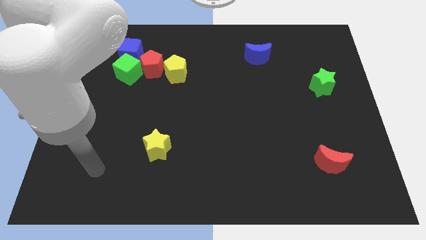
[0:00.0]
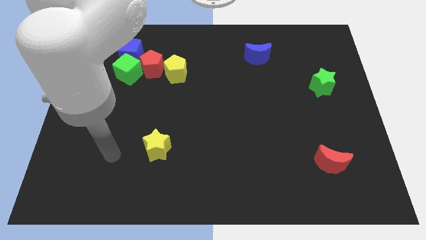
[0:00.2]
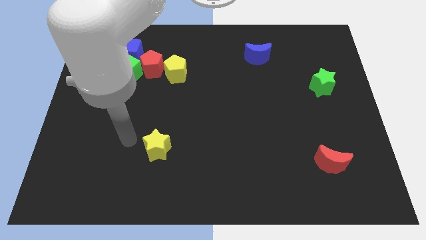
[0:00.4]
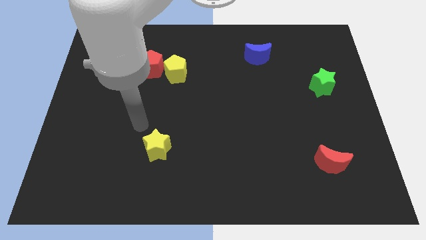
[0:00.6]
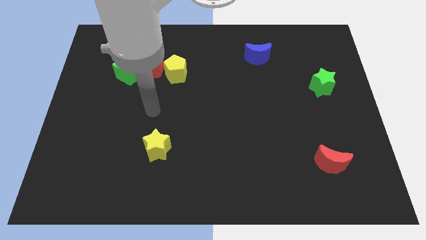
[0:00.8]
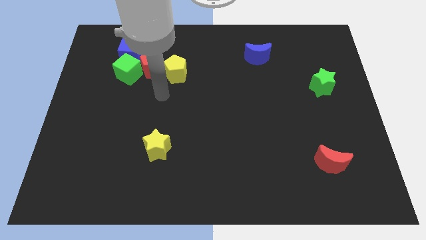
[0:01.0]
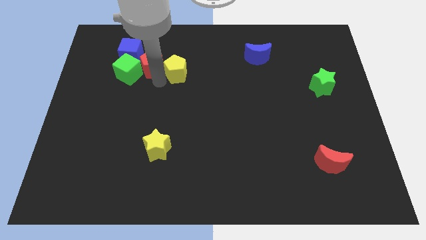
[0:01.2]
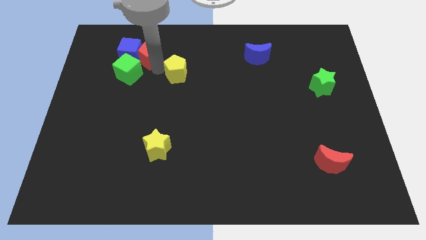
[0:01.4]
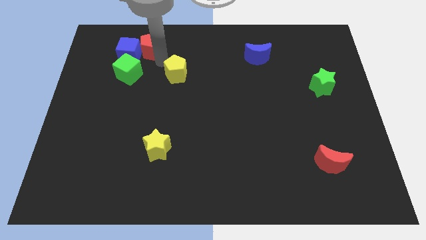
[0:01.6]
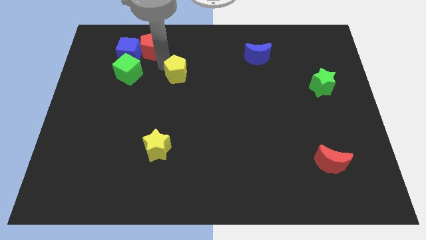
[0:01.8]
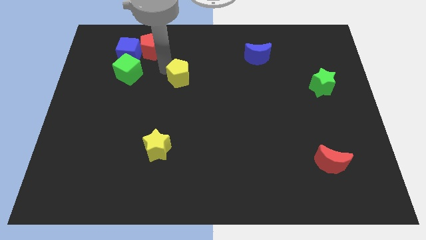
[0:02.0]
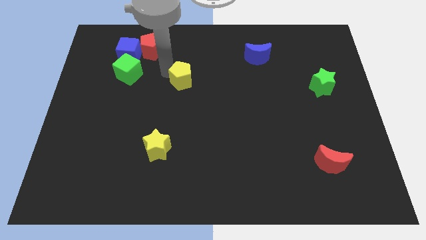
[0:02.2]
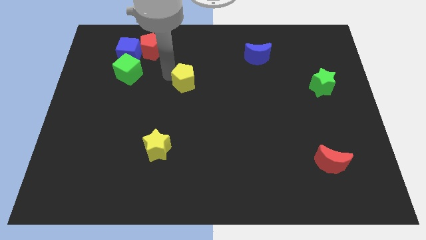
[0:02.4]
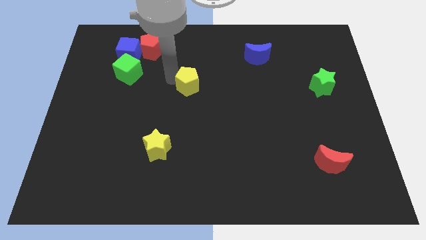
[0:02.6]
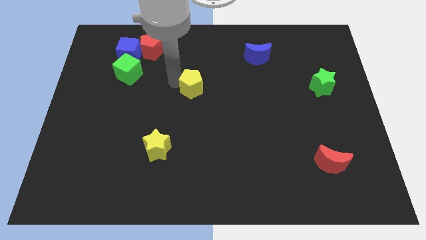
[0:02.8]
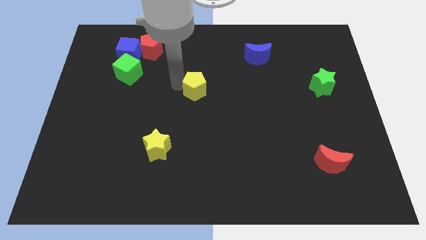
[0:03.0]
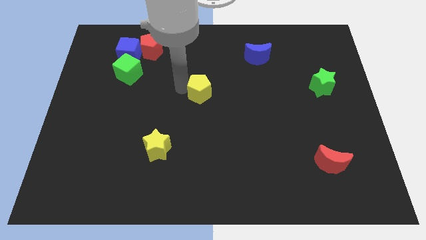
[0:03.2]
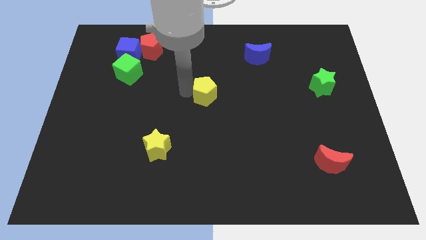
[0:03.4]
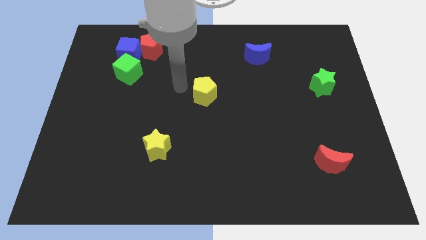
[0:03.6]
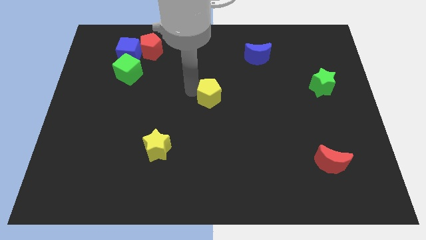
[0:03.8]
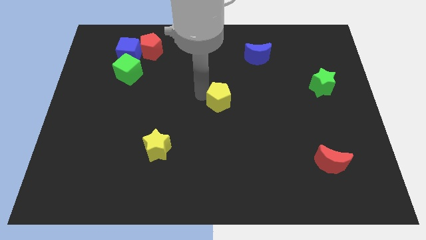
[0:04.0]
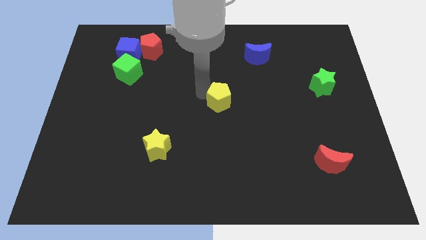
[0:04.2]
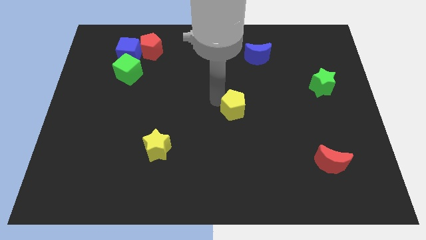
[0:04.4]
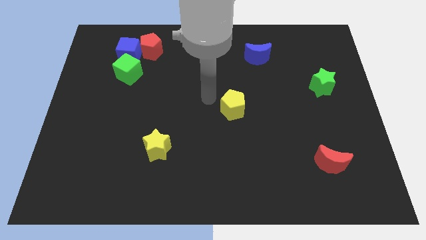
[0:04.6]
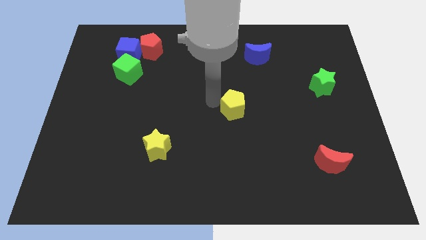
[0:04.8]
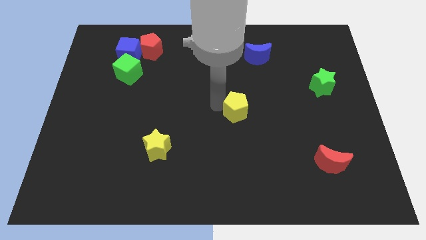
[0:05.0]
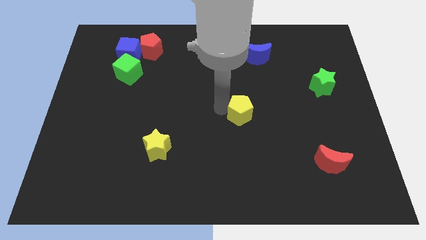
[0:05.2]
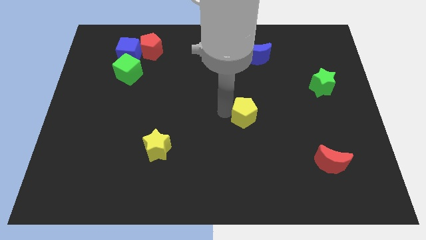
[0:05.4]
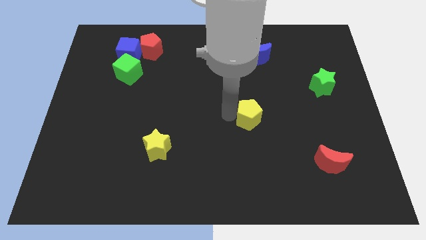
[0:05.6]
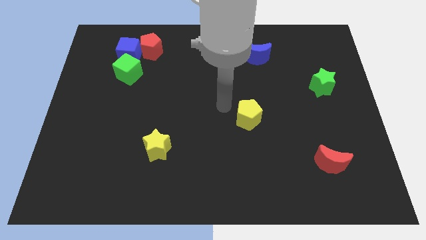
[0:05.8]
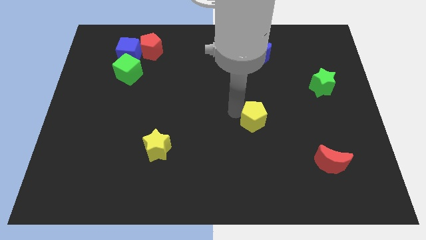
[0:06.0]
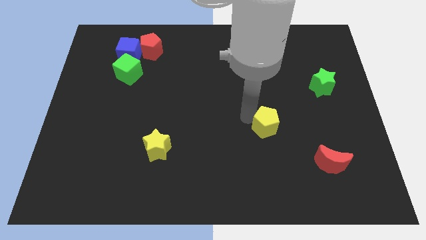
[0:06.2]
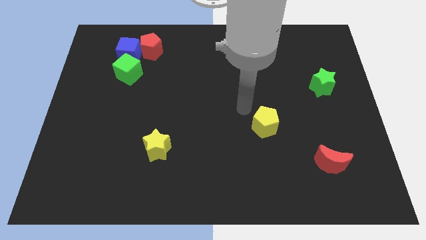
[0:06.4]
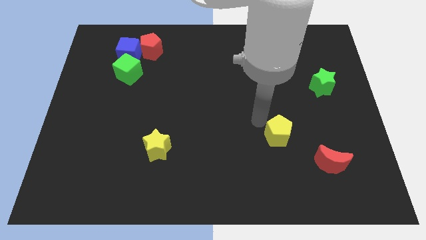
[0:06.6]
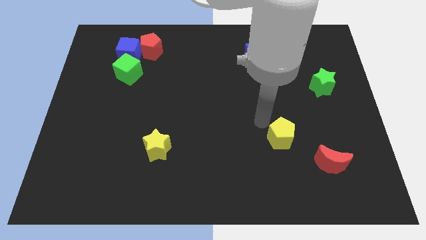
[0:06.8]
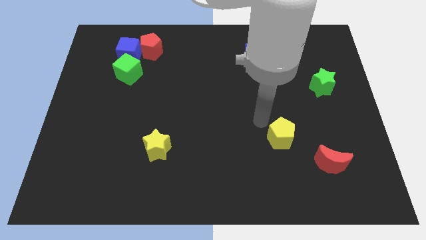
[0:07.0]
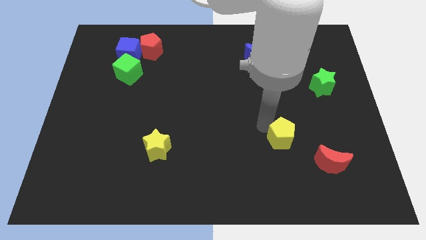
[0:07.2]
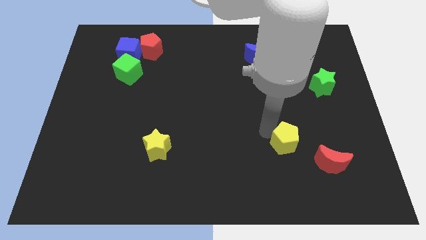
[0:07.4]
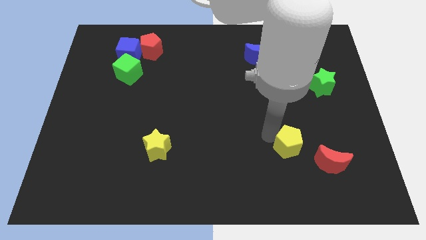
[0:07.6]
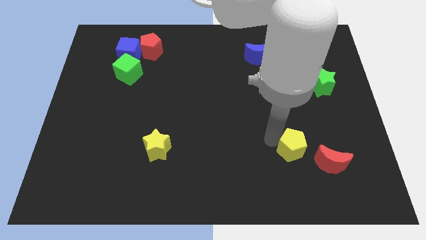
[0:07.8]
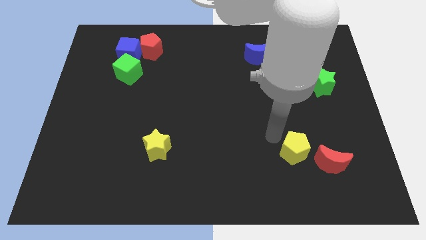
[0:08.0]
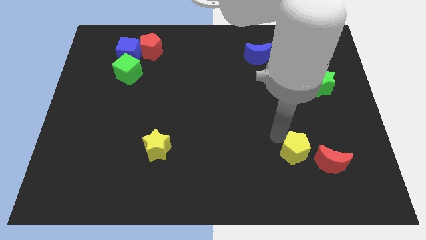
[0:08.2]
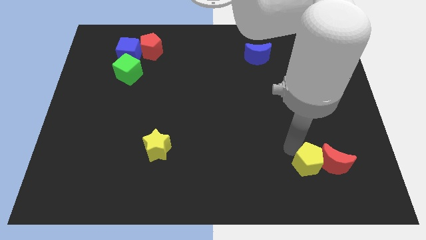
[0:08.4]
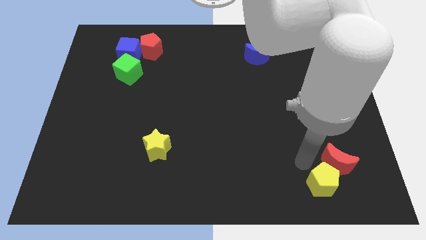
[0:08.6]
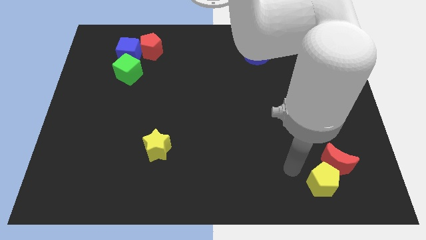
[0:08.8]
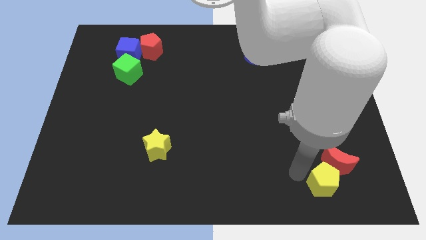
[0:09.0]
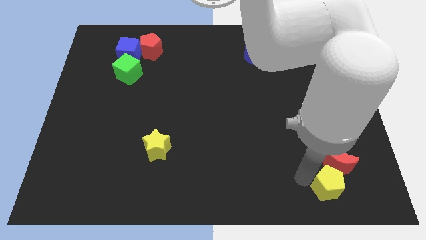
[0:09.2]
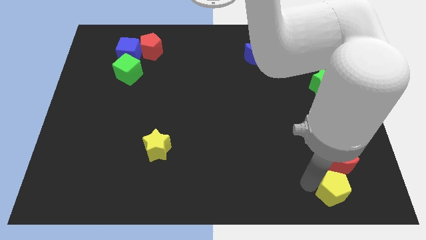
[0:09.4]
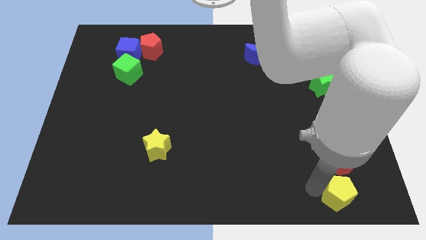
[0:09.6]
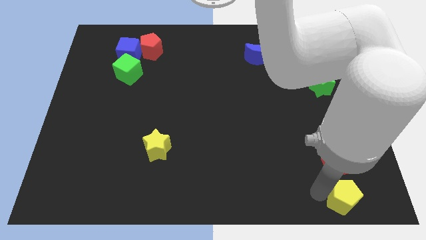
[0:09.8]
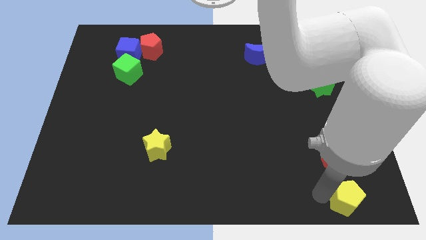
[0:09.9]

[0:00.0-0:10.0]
put the yellow pentagon to the bottom right

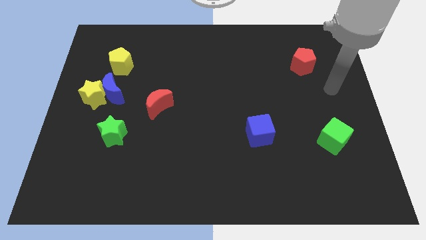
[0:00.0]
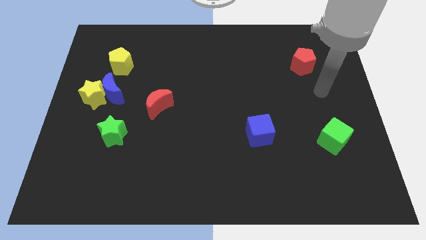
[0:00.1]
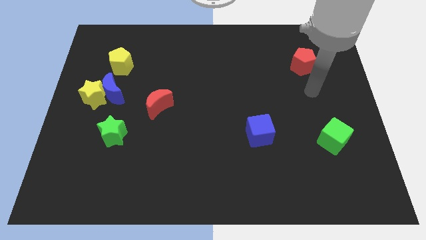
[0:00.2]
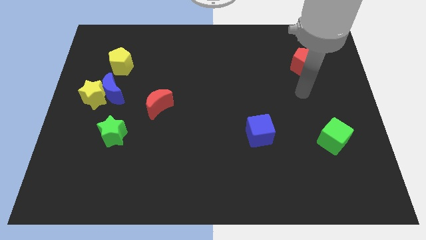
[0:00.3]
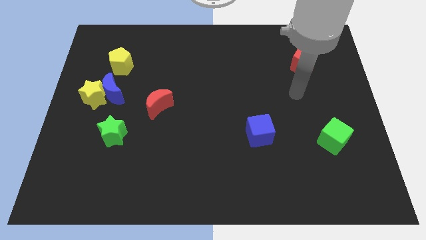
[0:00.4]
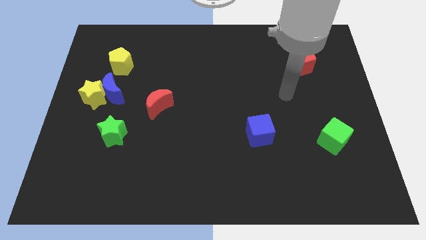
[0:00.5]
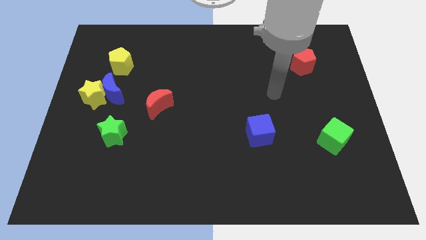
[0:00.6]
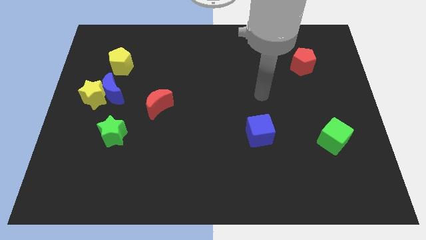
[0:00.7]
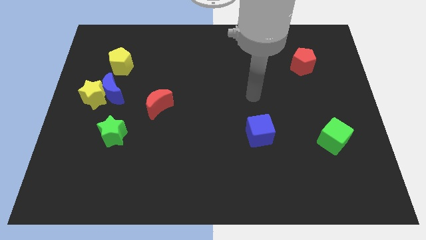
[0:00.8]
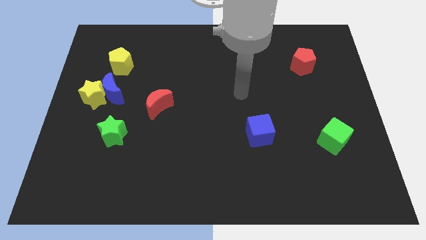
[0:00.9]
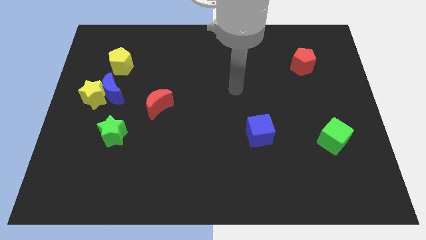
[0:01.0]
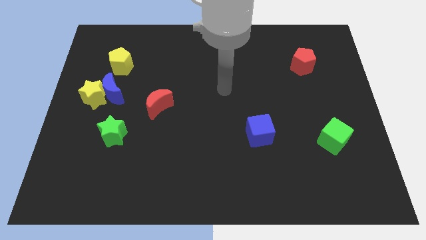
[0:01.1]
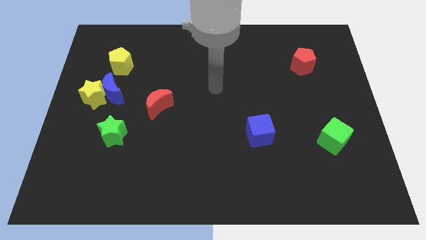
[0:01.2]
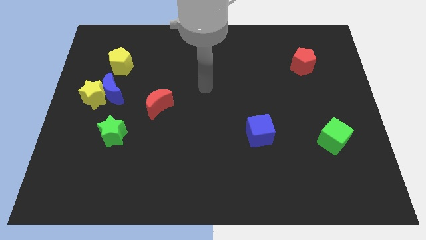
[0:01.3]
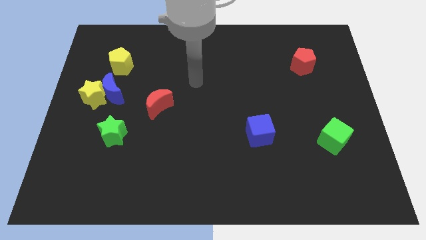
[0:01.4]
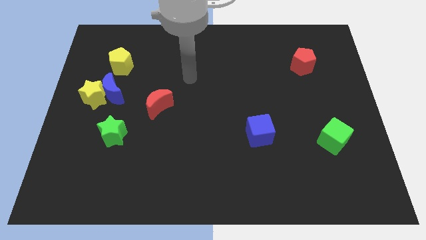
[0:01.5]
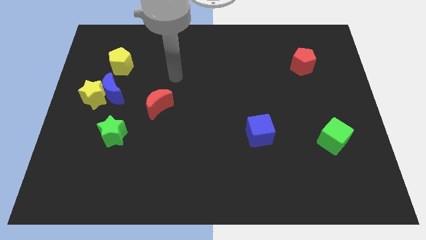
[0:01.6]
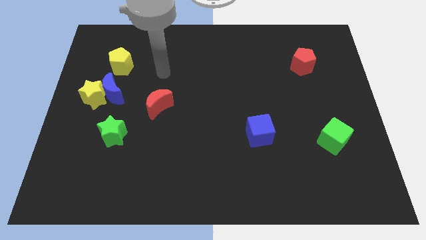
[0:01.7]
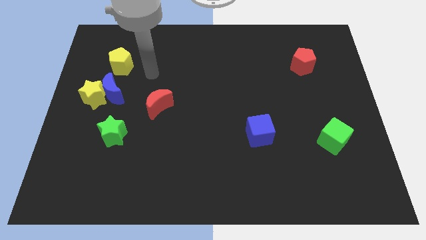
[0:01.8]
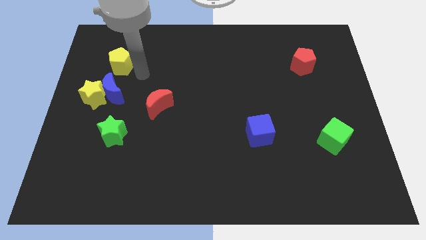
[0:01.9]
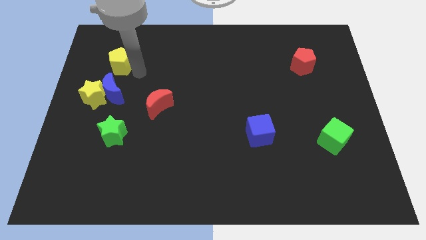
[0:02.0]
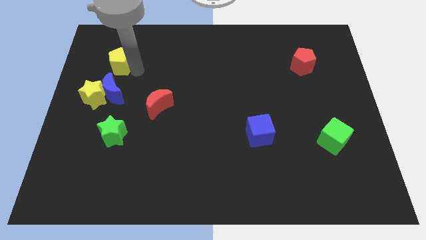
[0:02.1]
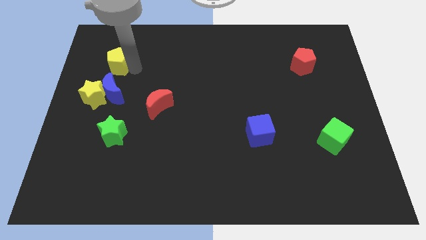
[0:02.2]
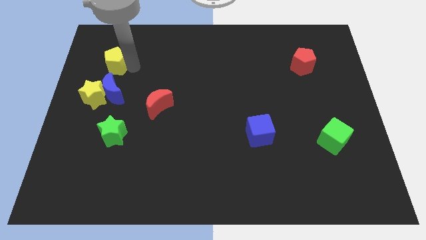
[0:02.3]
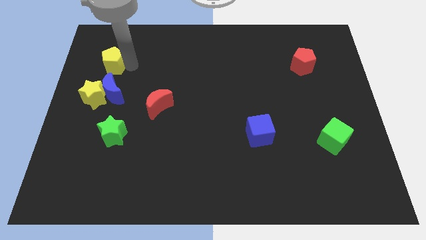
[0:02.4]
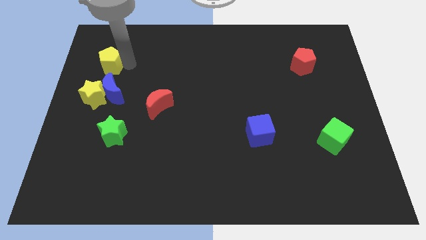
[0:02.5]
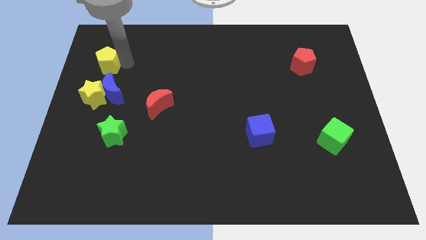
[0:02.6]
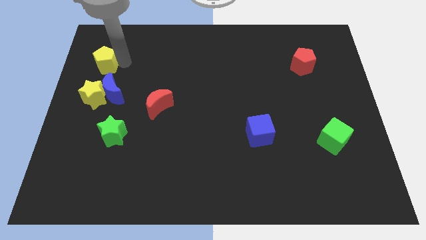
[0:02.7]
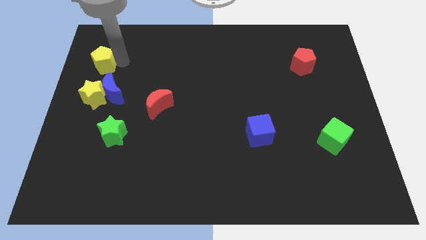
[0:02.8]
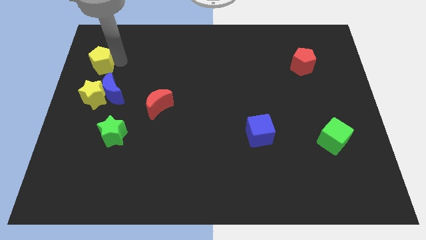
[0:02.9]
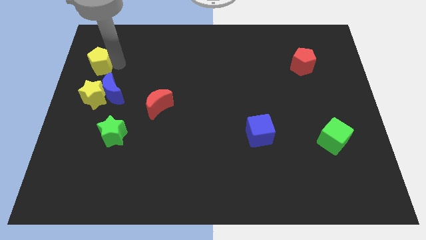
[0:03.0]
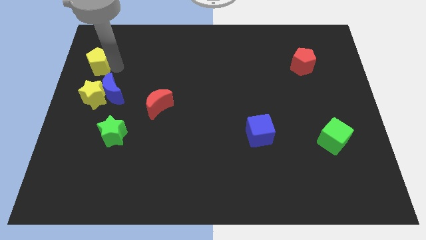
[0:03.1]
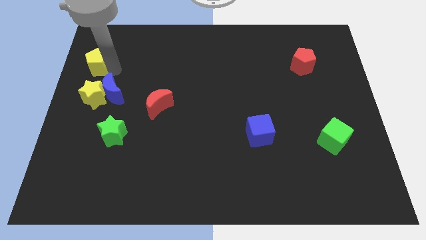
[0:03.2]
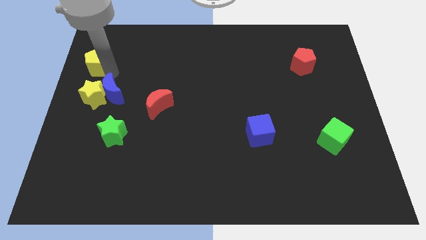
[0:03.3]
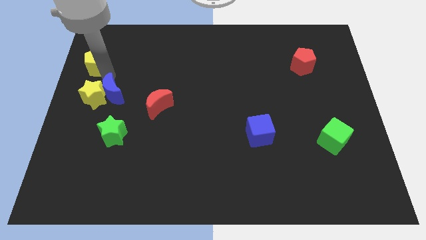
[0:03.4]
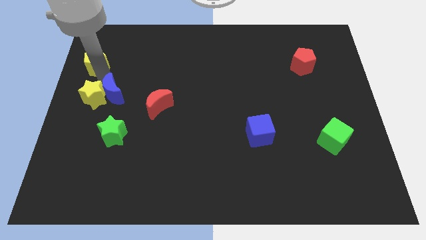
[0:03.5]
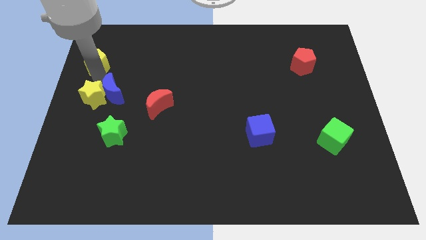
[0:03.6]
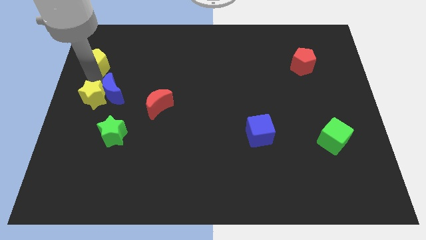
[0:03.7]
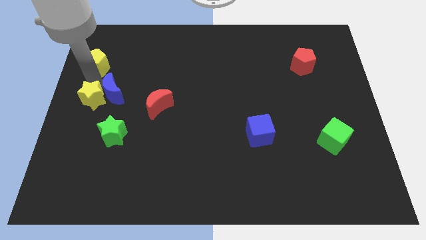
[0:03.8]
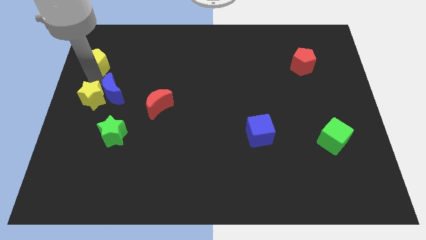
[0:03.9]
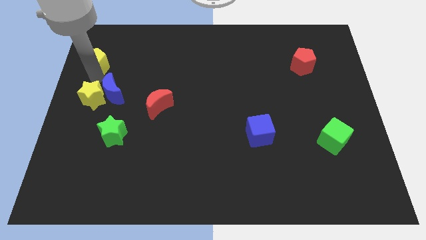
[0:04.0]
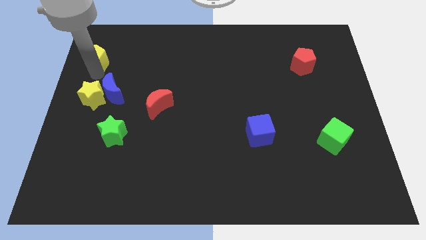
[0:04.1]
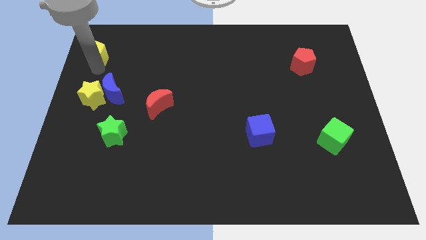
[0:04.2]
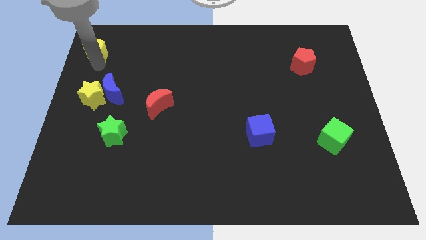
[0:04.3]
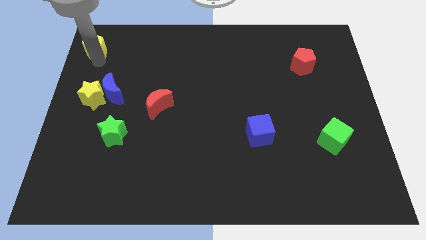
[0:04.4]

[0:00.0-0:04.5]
move the yellow pentagon to the top left of the board
